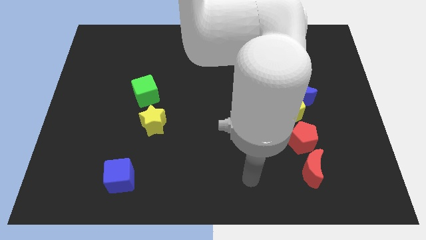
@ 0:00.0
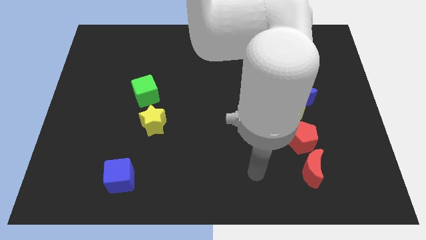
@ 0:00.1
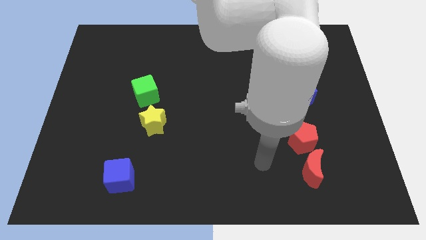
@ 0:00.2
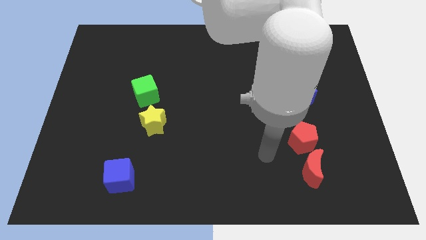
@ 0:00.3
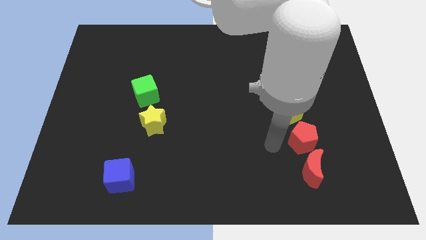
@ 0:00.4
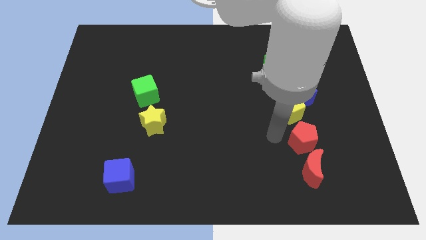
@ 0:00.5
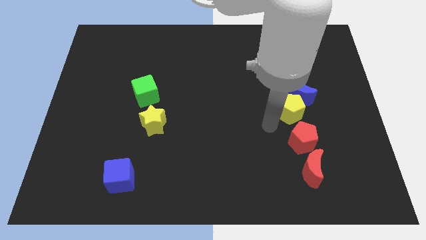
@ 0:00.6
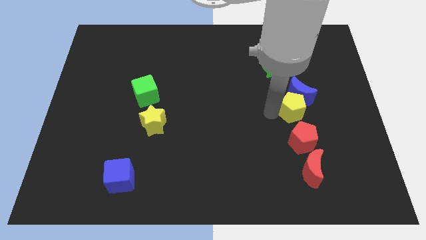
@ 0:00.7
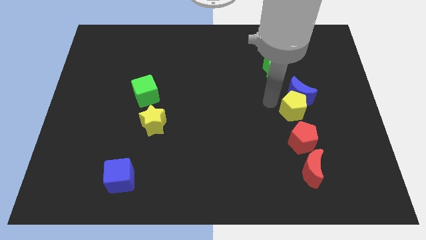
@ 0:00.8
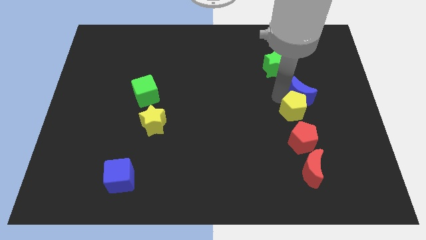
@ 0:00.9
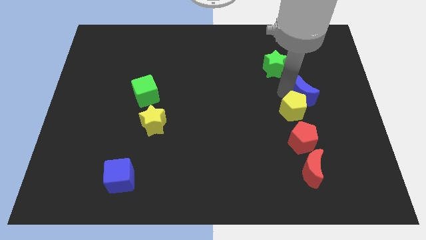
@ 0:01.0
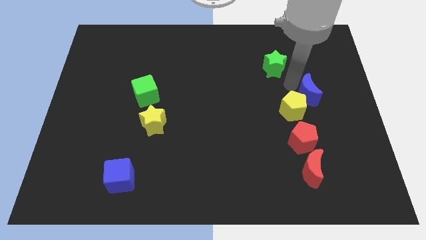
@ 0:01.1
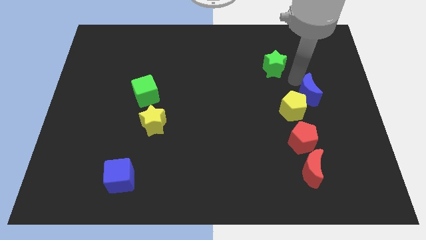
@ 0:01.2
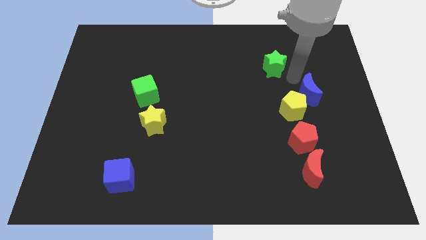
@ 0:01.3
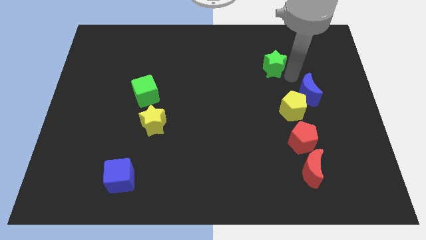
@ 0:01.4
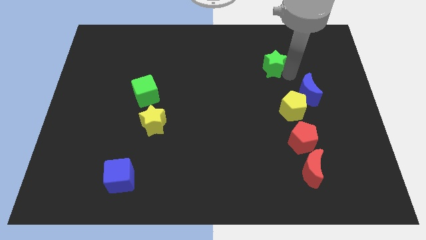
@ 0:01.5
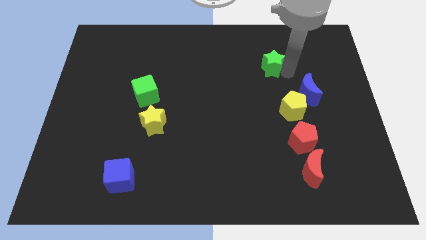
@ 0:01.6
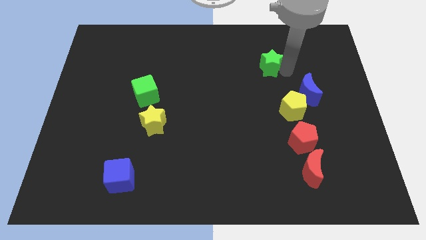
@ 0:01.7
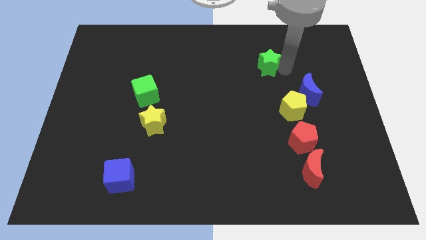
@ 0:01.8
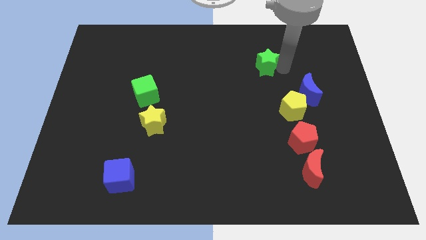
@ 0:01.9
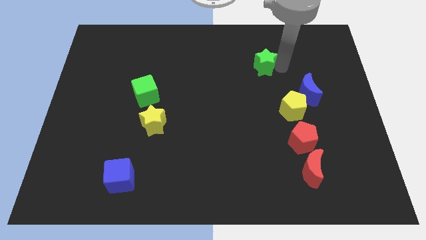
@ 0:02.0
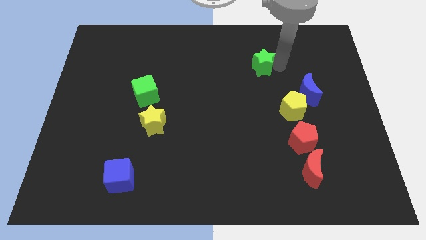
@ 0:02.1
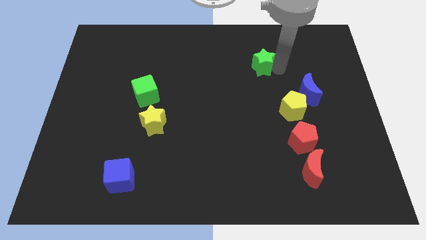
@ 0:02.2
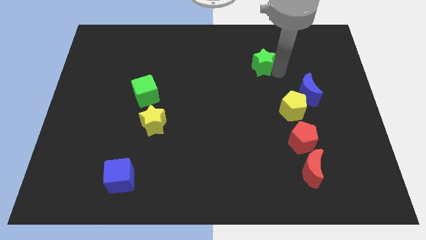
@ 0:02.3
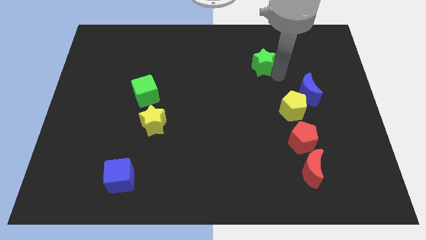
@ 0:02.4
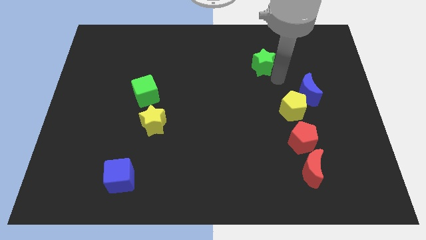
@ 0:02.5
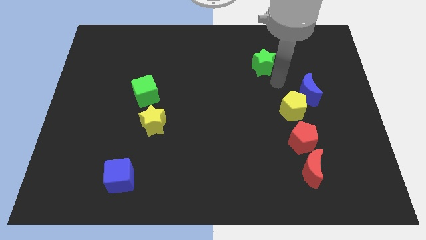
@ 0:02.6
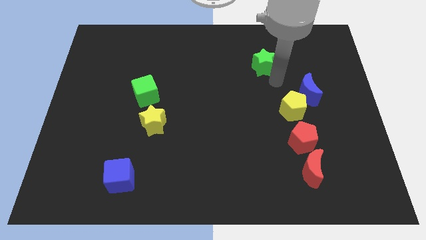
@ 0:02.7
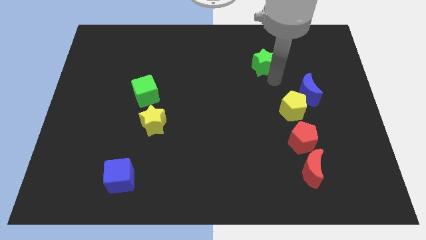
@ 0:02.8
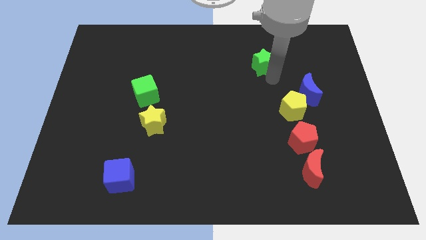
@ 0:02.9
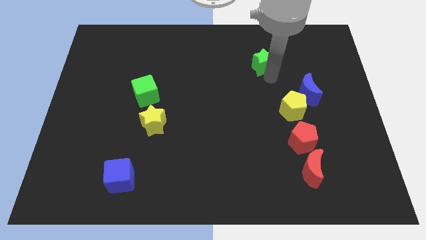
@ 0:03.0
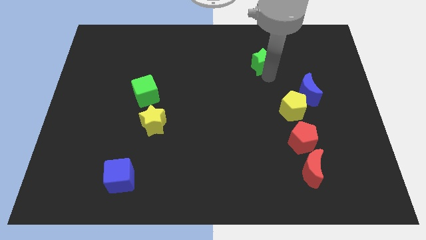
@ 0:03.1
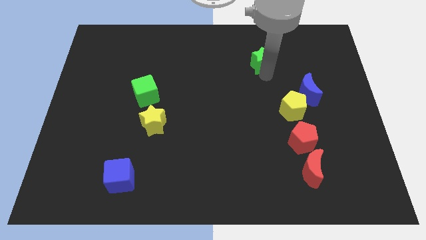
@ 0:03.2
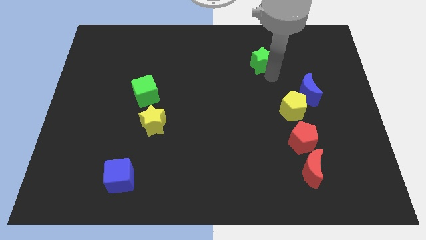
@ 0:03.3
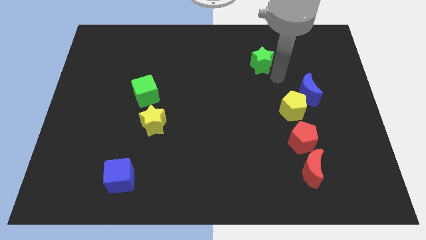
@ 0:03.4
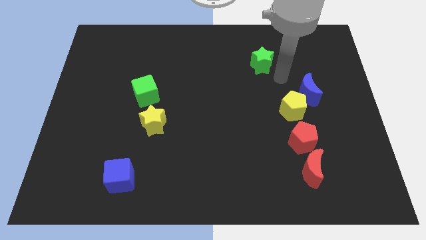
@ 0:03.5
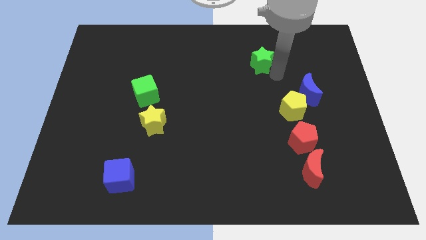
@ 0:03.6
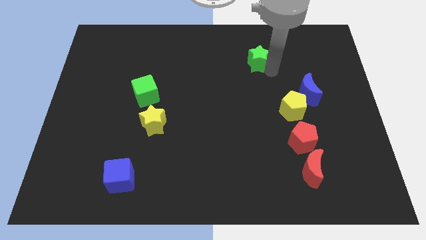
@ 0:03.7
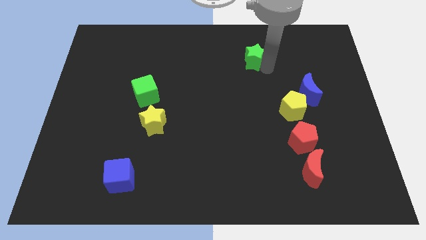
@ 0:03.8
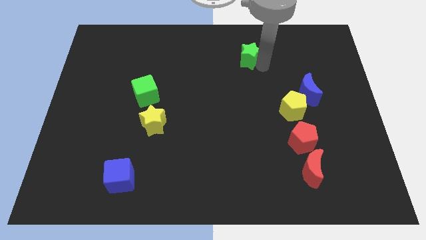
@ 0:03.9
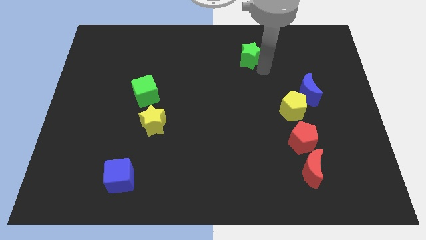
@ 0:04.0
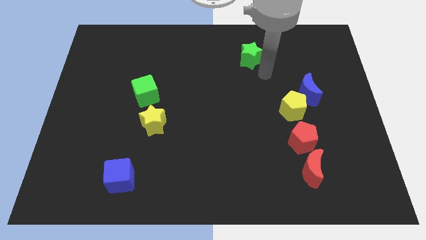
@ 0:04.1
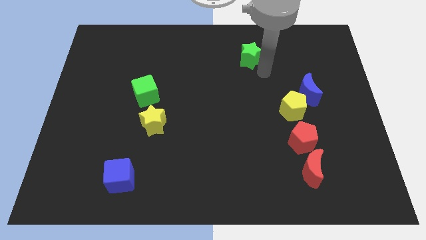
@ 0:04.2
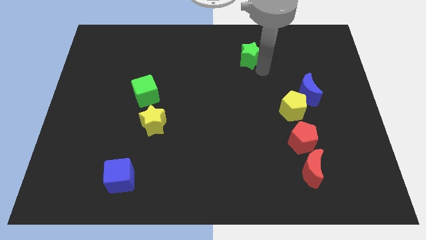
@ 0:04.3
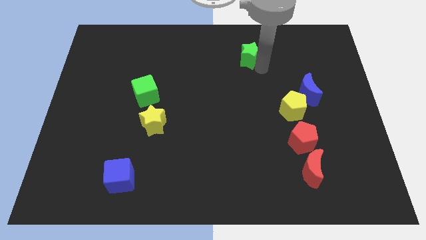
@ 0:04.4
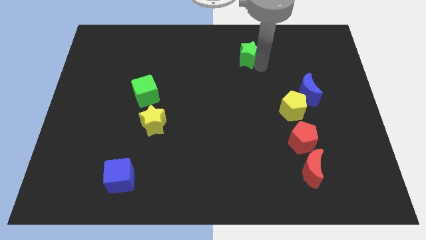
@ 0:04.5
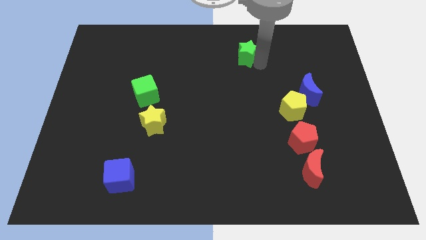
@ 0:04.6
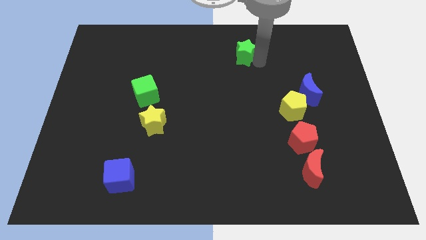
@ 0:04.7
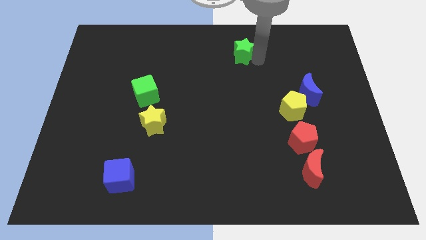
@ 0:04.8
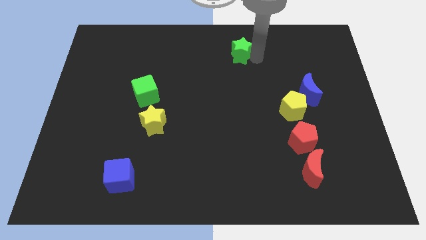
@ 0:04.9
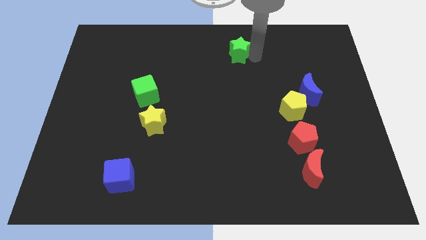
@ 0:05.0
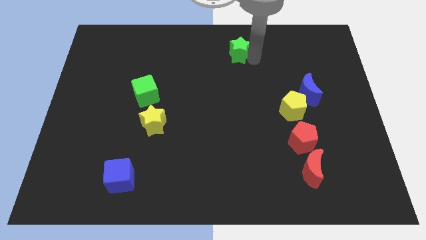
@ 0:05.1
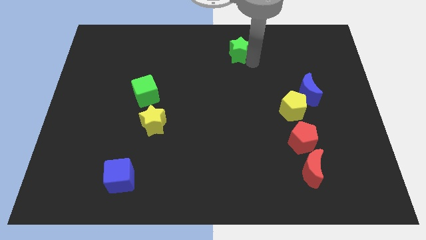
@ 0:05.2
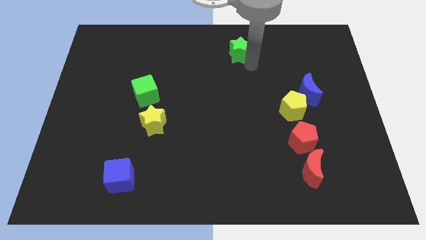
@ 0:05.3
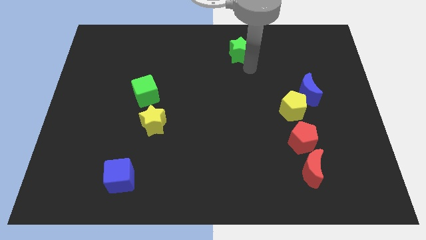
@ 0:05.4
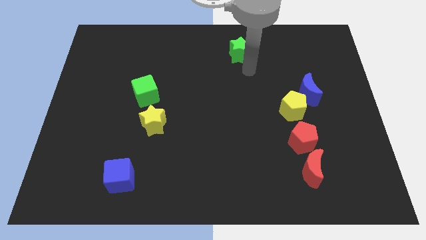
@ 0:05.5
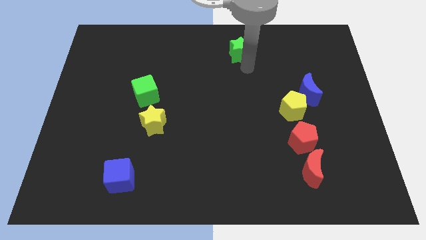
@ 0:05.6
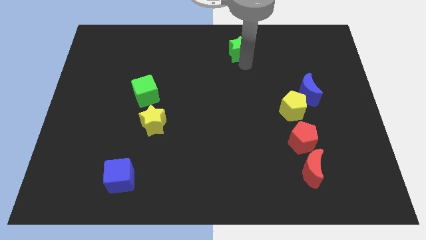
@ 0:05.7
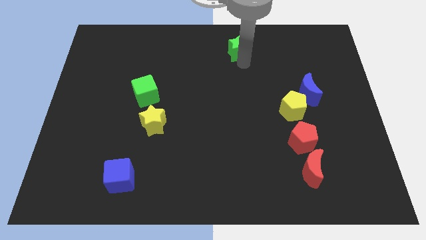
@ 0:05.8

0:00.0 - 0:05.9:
put the green star to the towards your base
